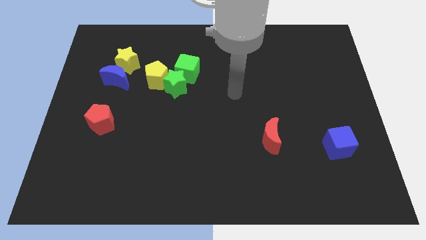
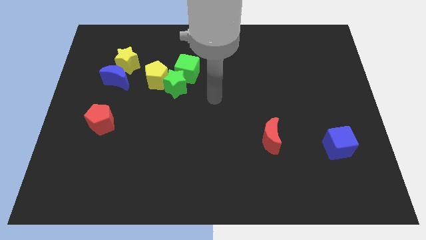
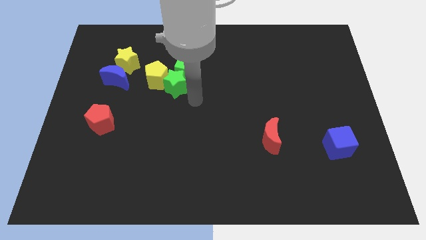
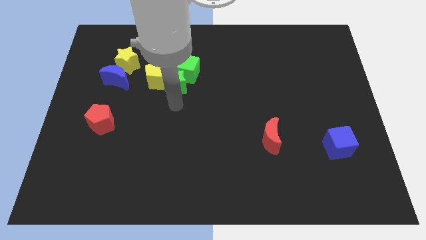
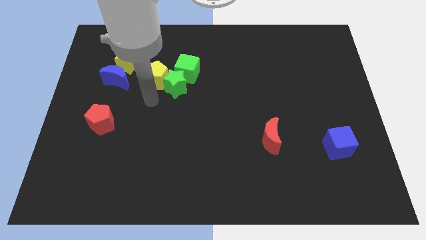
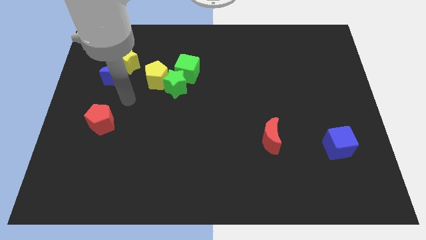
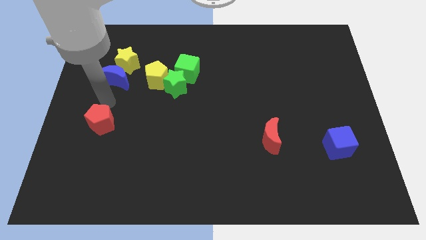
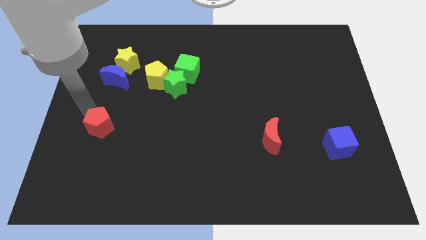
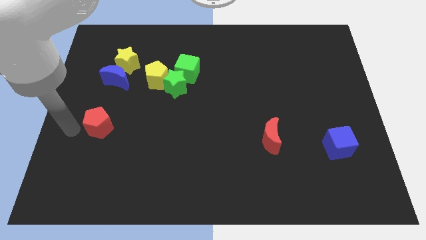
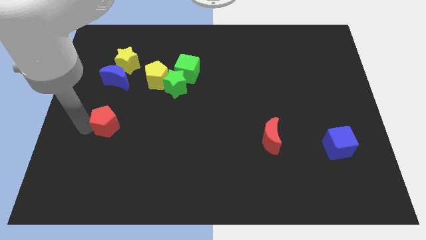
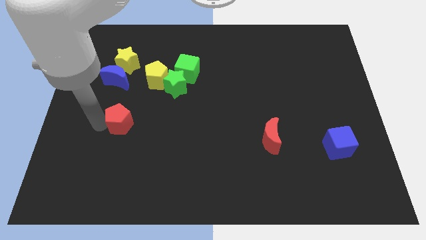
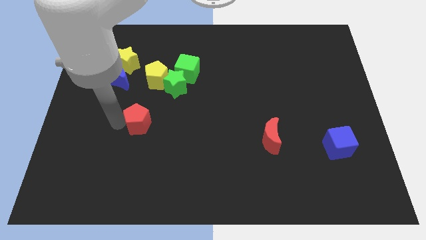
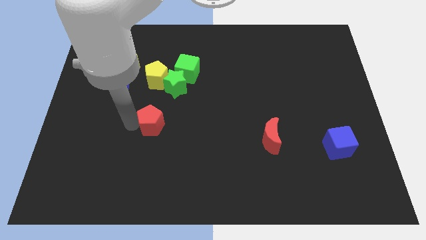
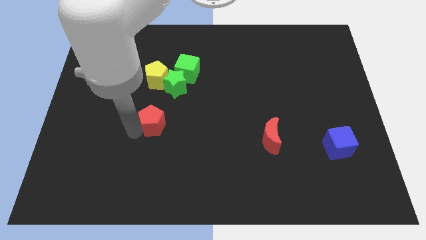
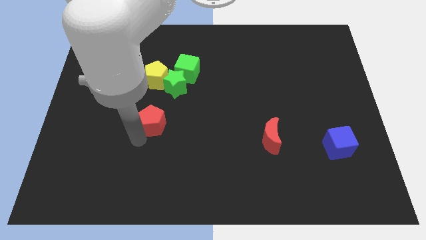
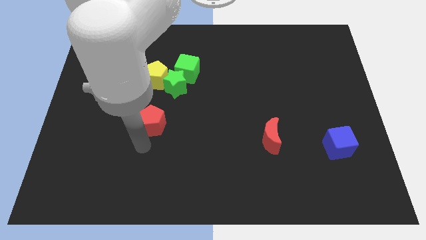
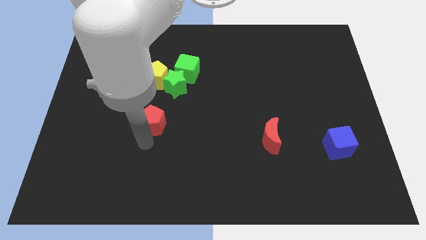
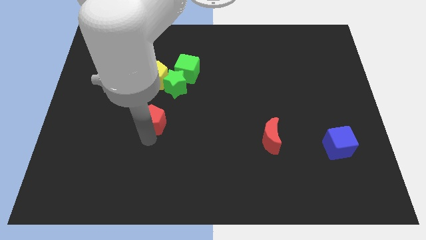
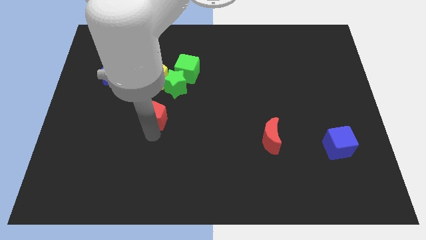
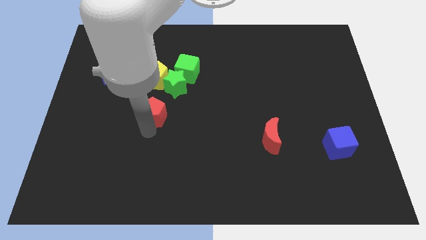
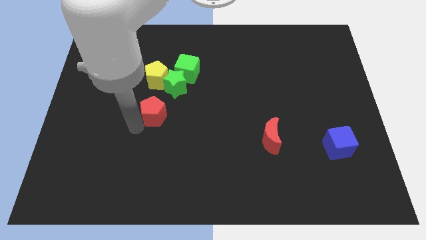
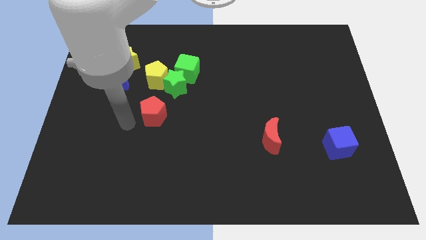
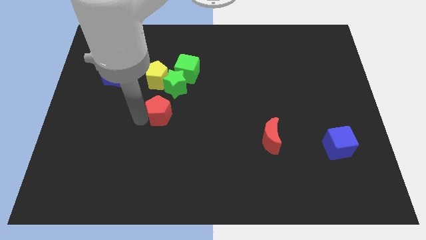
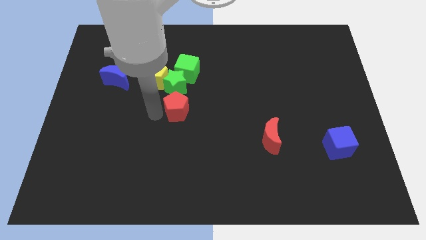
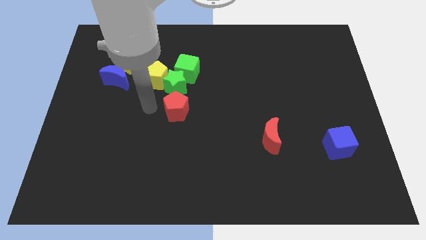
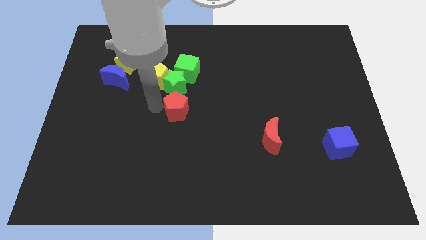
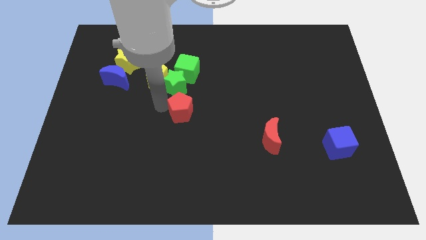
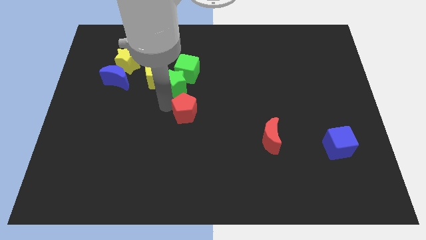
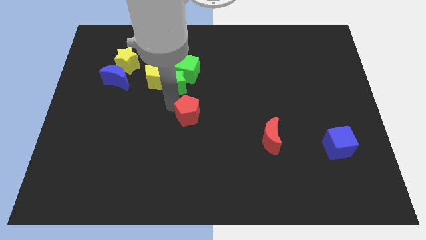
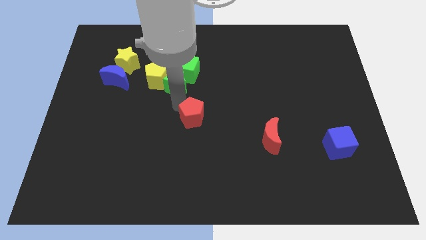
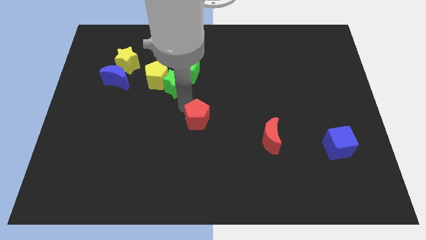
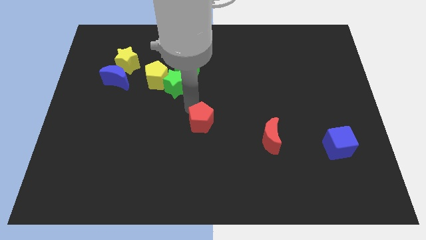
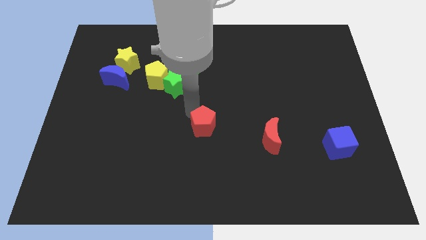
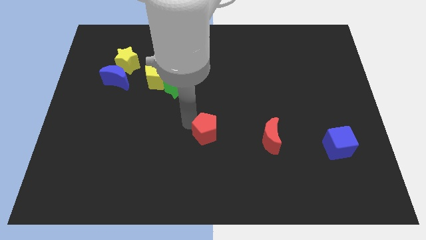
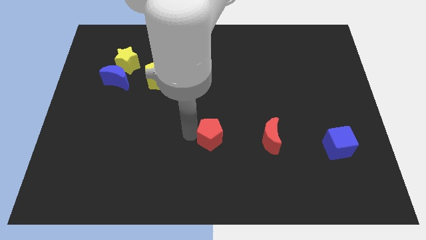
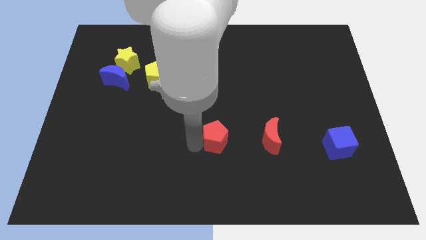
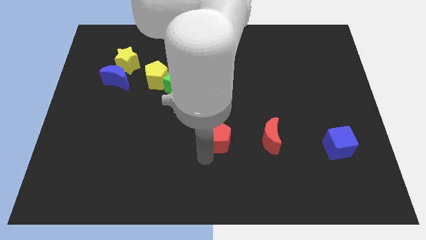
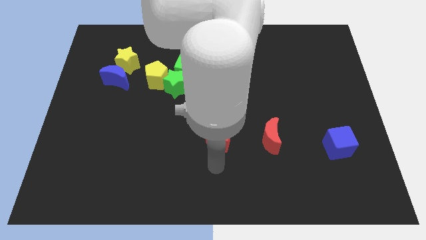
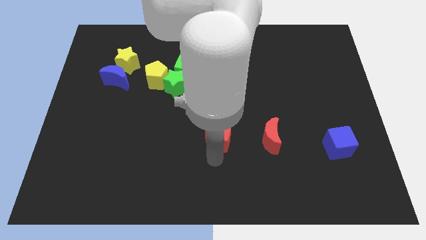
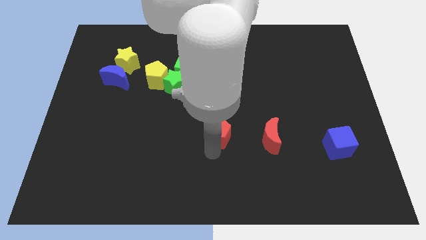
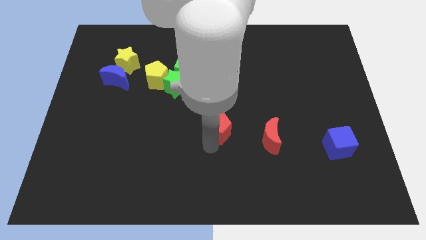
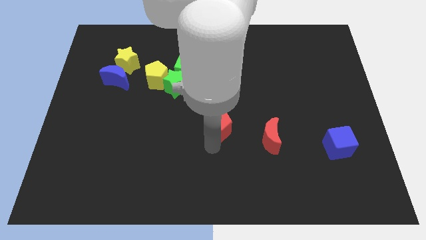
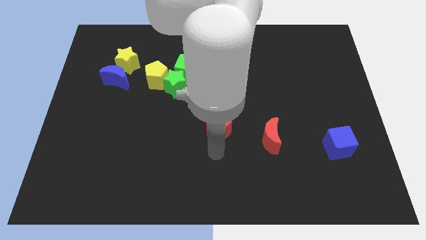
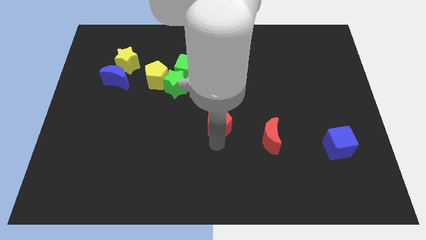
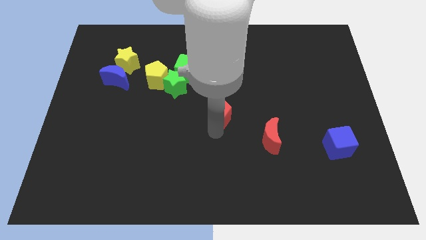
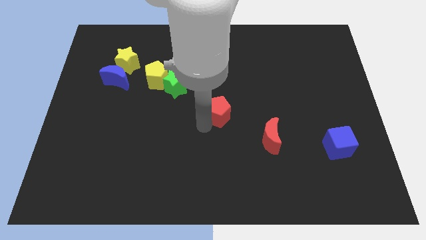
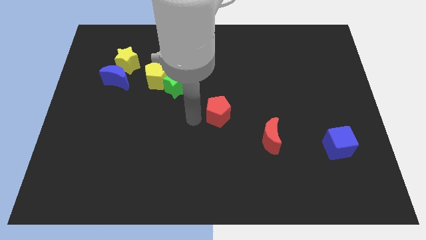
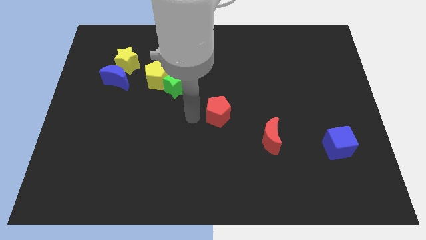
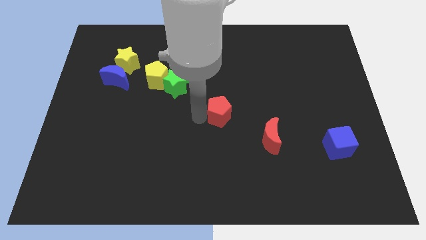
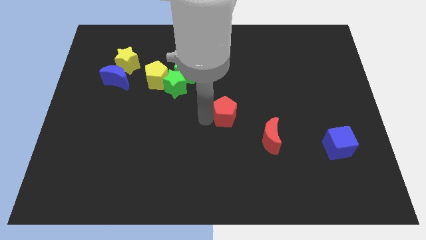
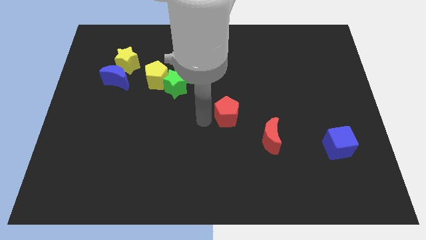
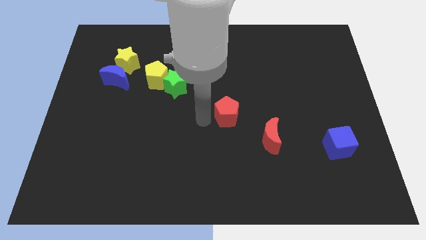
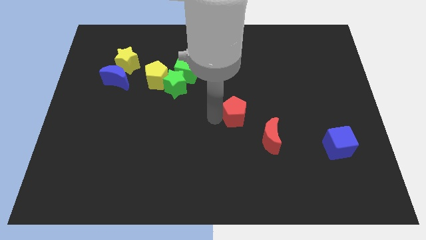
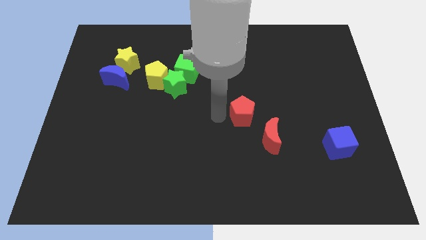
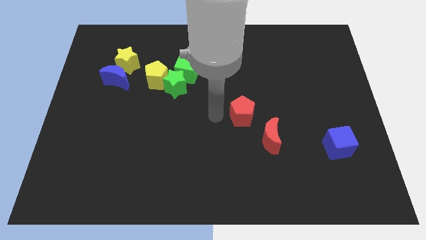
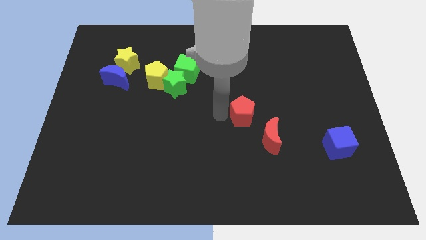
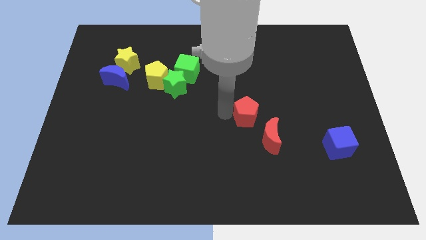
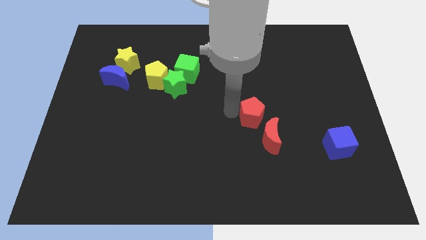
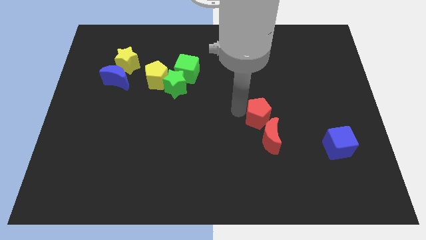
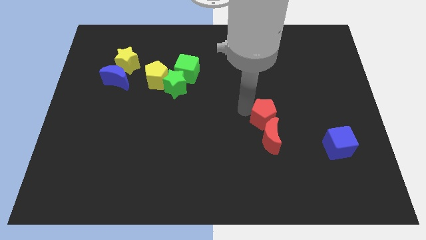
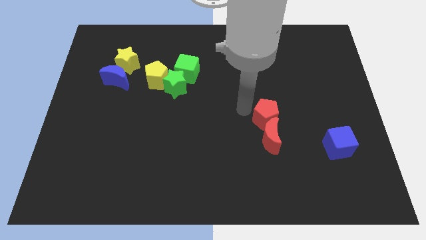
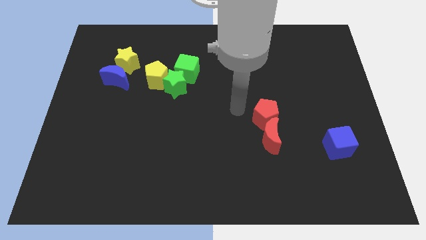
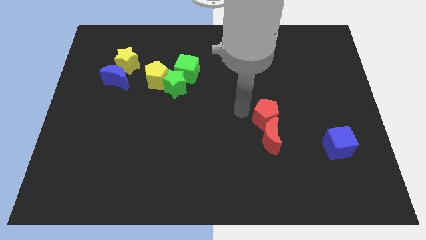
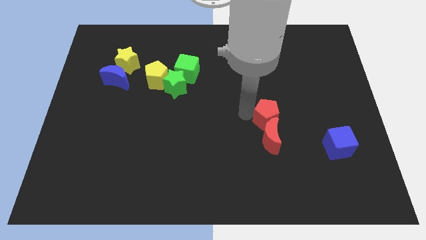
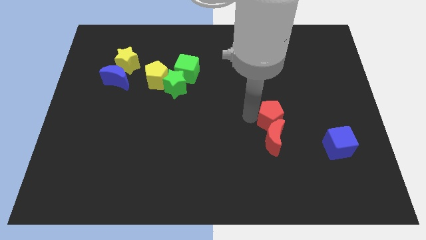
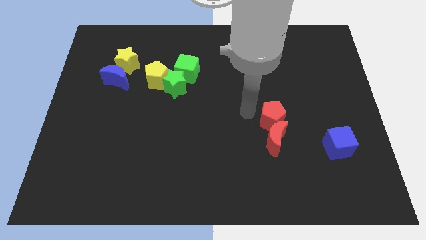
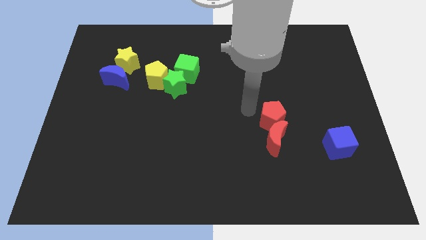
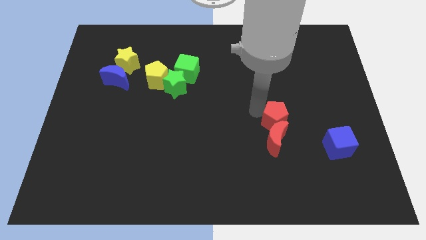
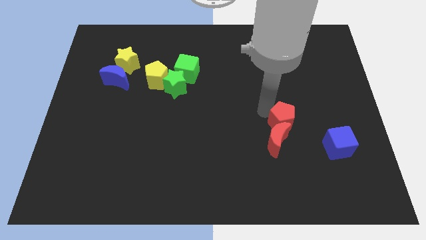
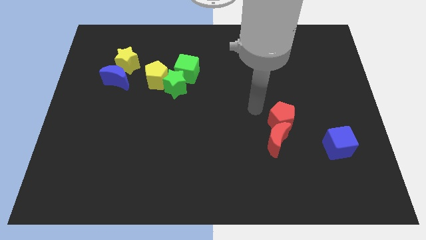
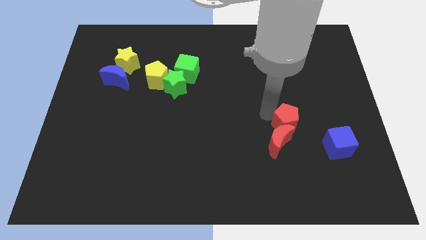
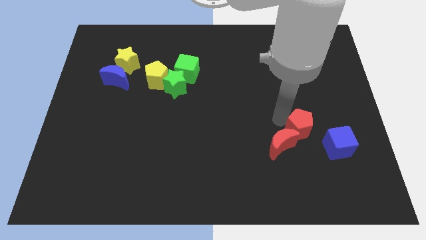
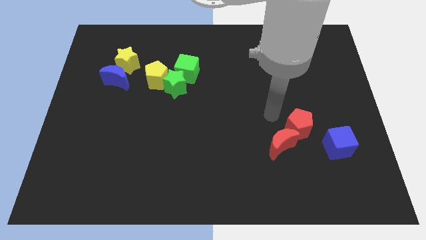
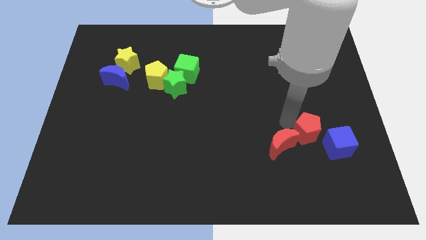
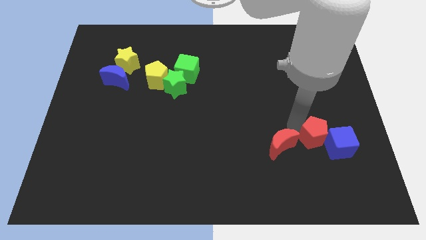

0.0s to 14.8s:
slide the red pentagon close to the blue cube

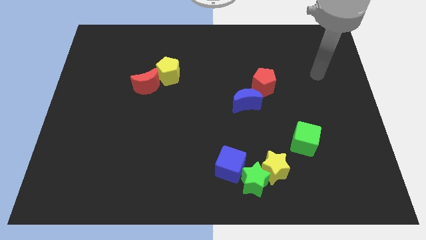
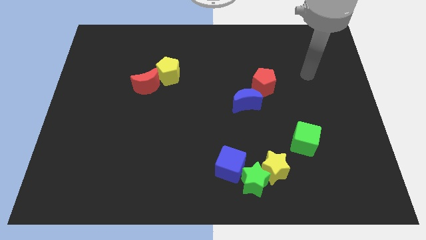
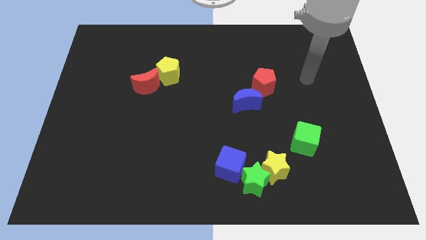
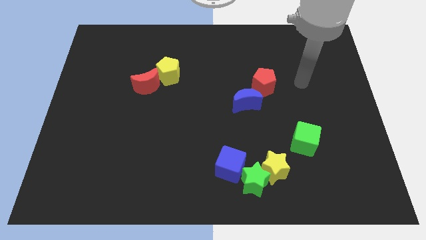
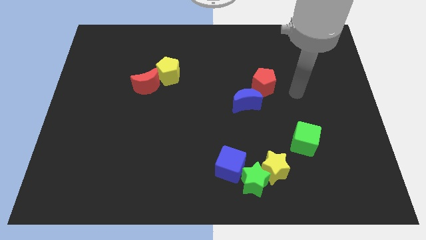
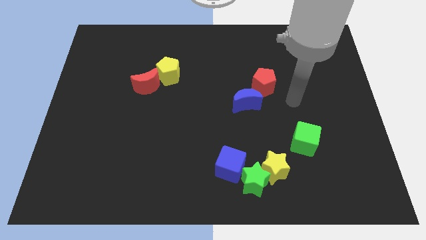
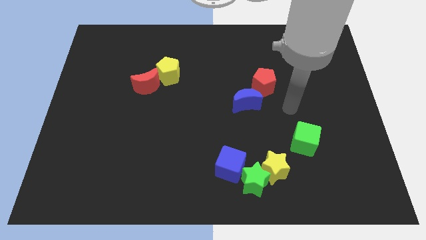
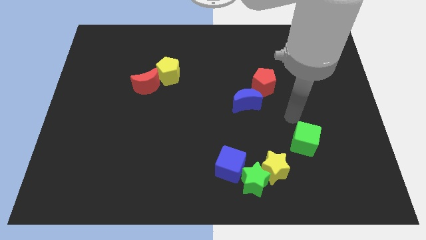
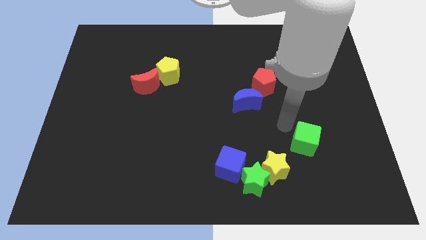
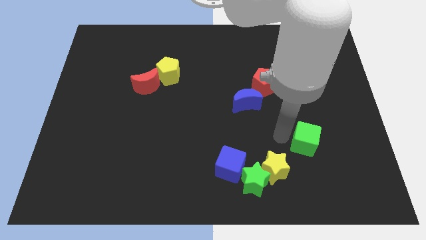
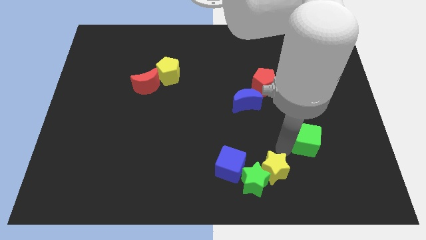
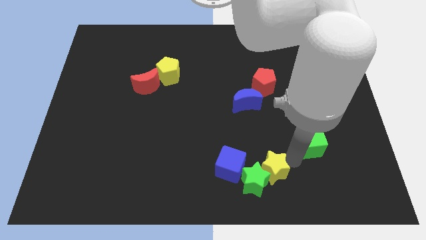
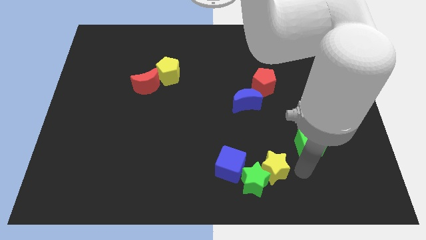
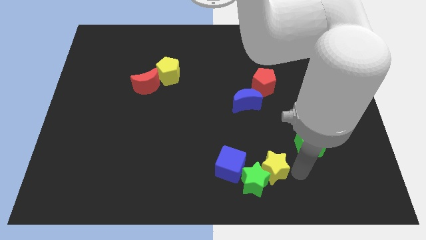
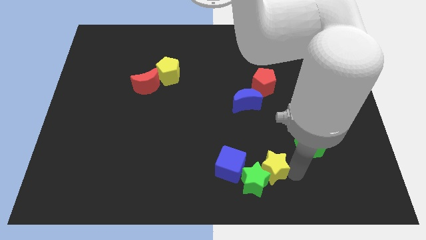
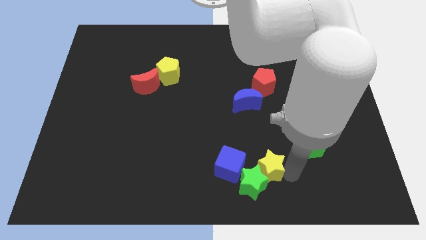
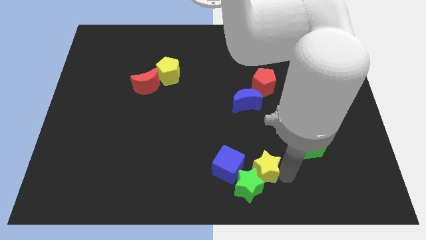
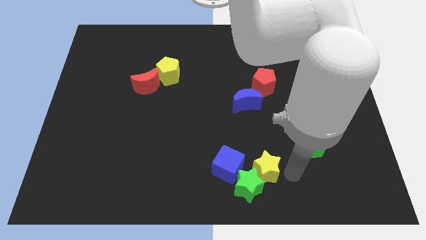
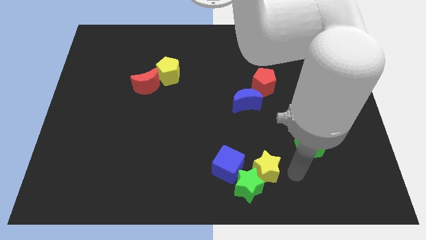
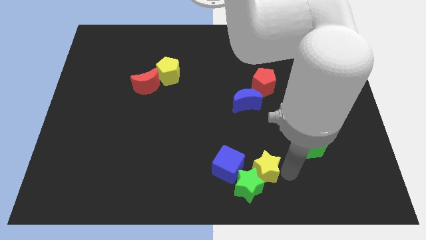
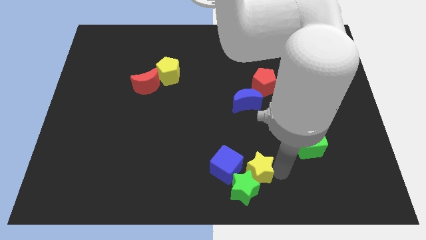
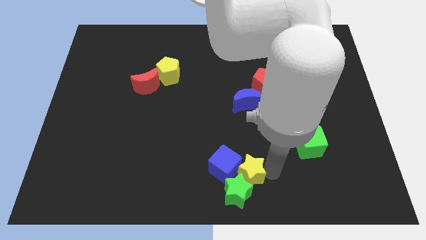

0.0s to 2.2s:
move the yellow star to the blue cube
